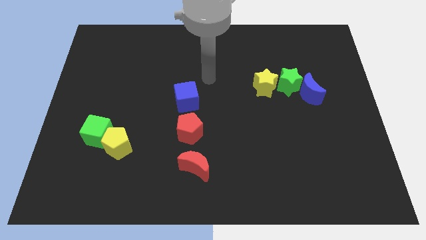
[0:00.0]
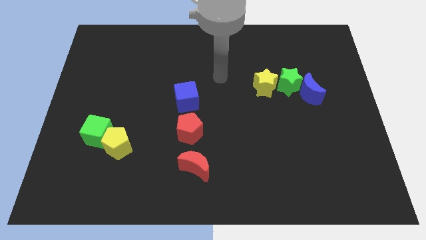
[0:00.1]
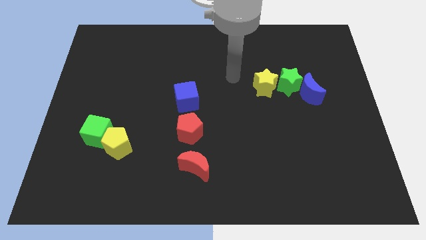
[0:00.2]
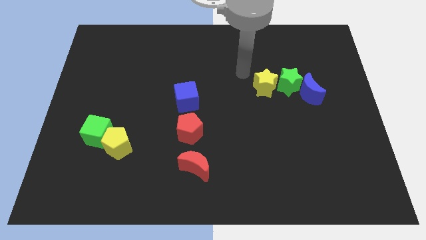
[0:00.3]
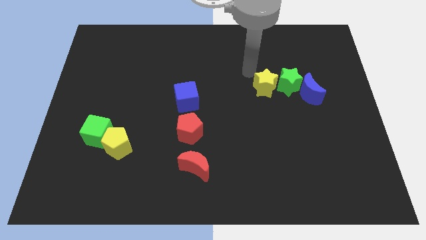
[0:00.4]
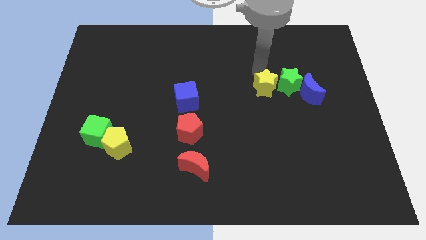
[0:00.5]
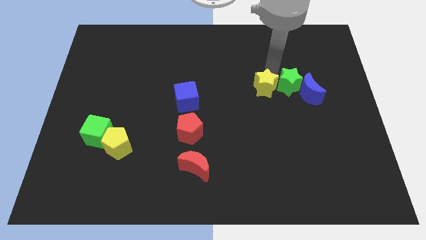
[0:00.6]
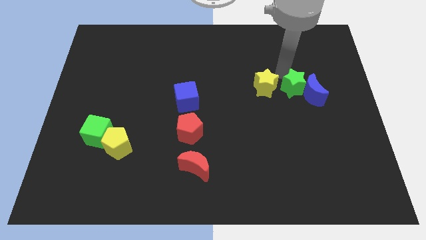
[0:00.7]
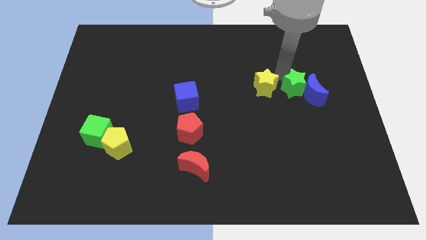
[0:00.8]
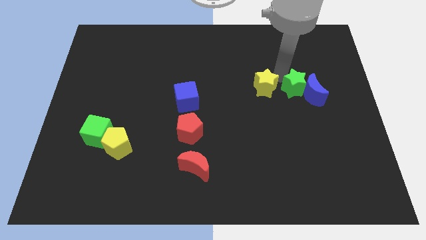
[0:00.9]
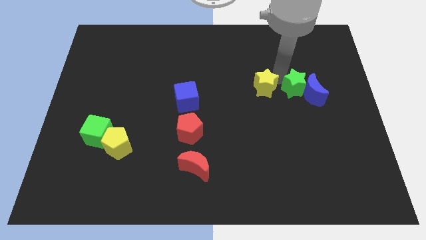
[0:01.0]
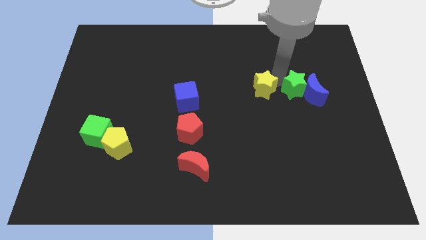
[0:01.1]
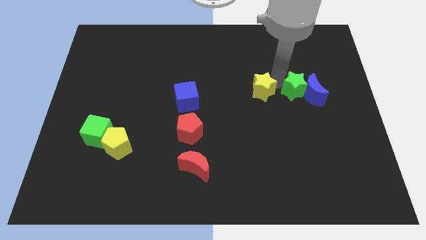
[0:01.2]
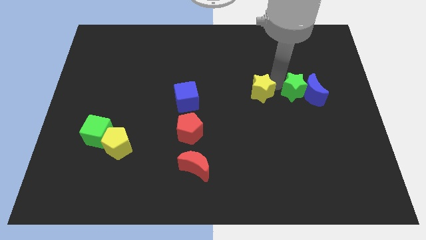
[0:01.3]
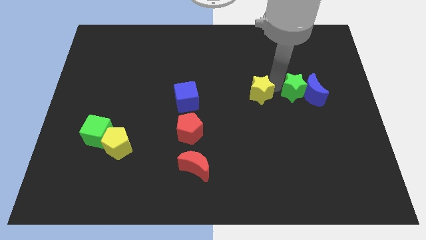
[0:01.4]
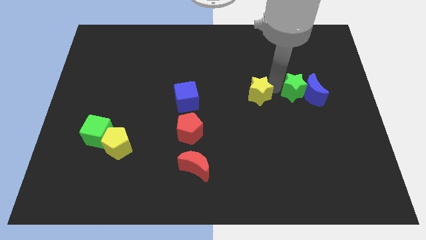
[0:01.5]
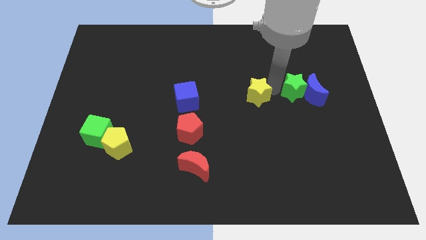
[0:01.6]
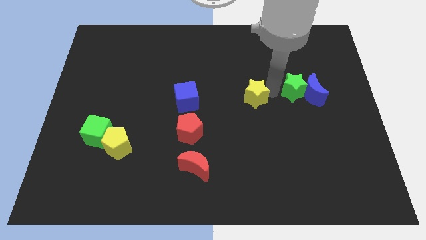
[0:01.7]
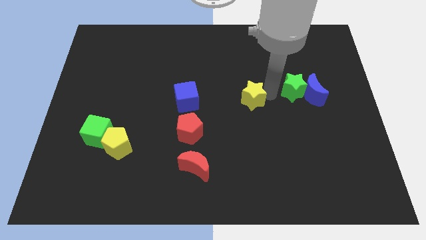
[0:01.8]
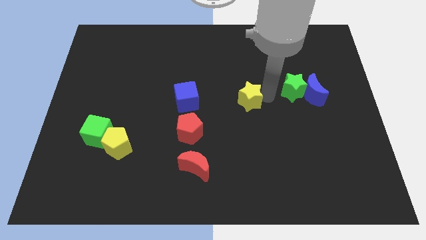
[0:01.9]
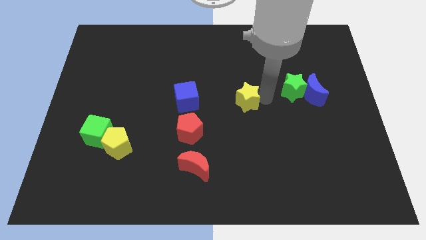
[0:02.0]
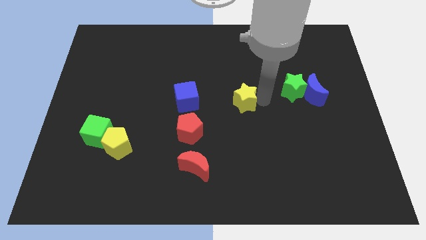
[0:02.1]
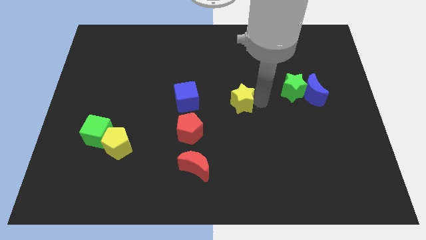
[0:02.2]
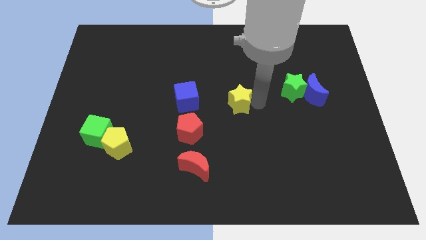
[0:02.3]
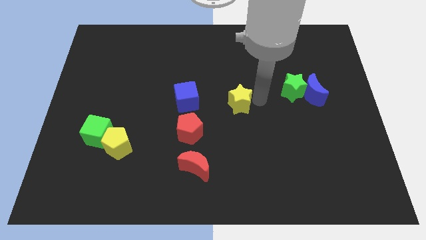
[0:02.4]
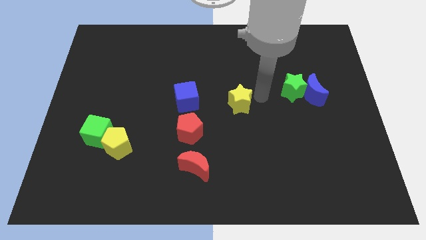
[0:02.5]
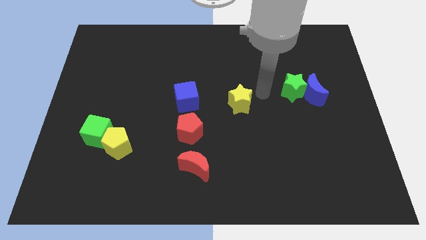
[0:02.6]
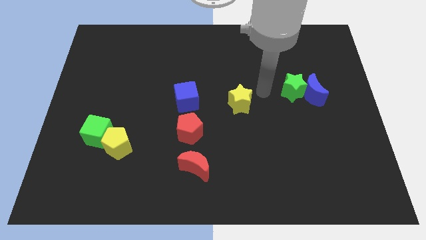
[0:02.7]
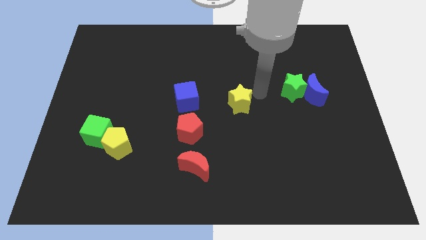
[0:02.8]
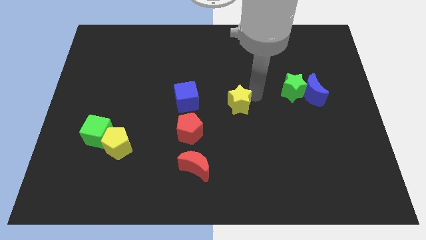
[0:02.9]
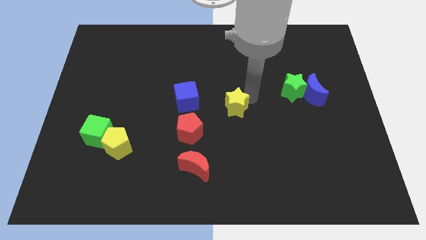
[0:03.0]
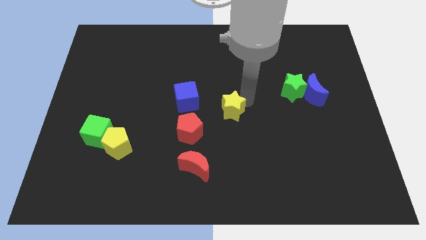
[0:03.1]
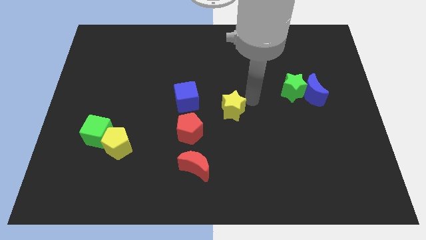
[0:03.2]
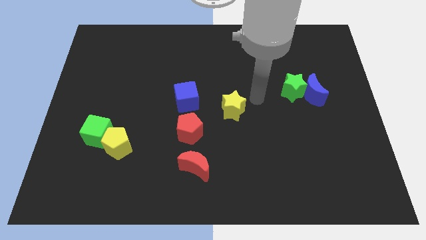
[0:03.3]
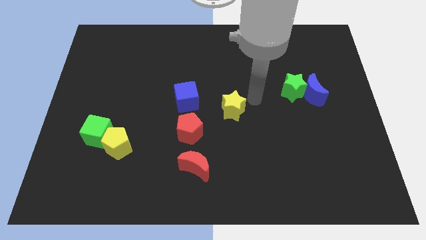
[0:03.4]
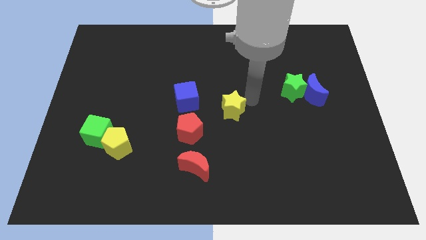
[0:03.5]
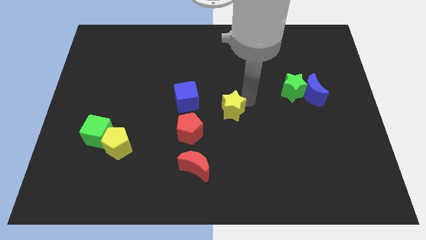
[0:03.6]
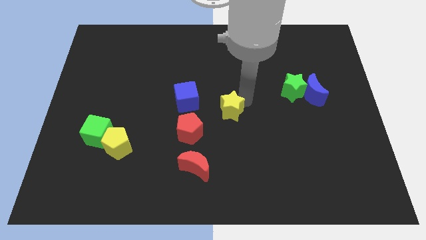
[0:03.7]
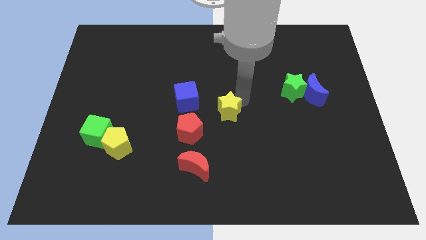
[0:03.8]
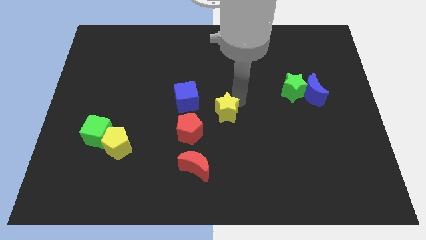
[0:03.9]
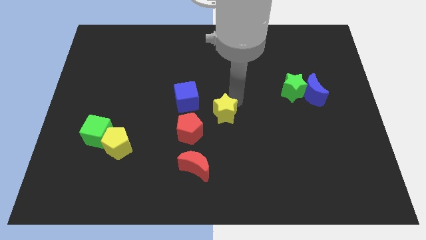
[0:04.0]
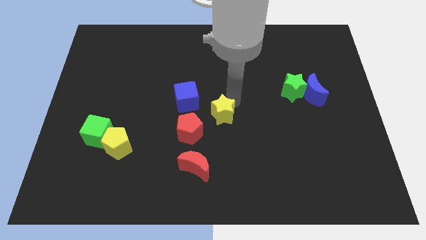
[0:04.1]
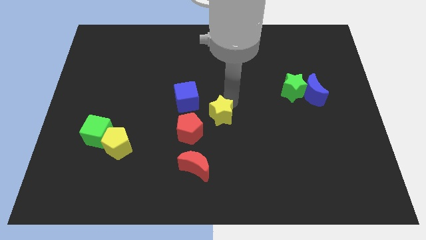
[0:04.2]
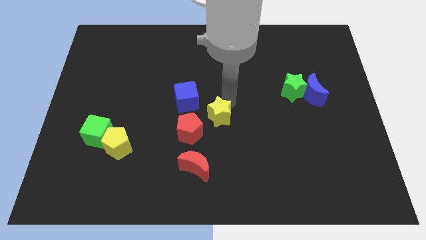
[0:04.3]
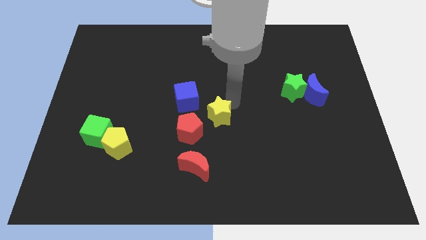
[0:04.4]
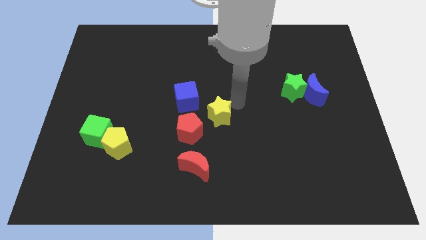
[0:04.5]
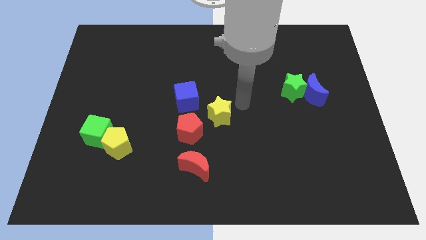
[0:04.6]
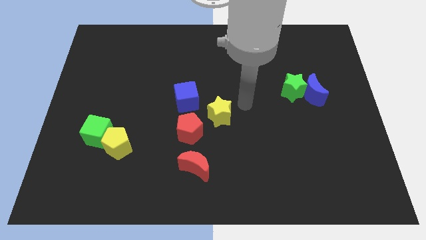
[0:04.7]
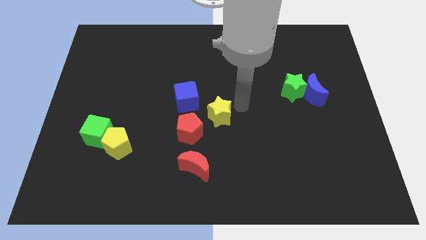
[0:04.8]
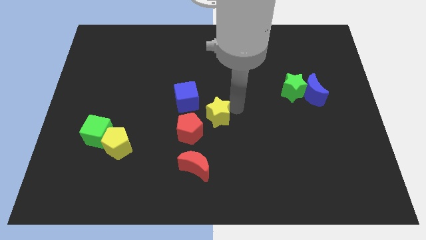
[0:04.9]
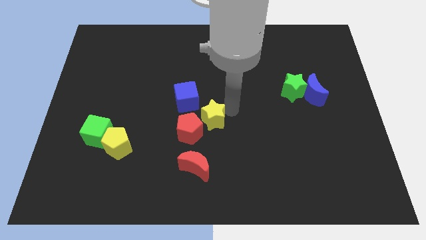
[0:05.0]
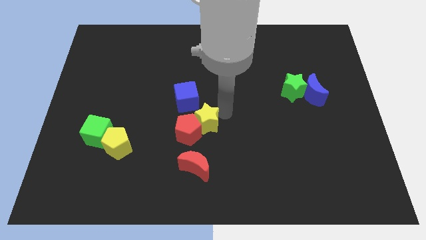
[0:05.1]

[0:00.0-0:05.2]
move the yellow star next to the red pentagon

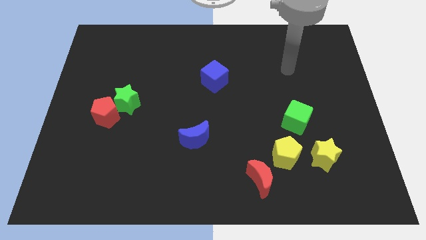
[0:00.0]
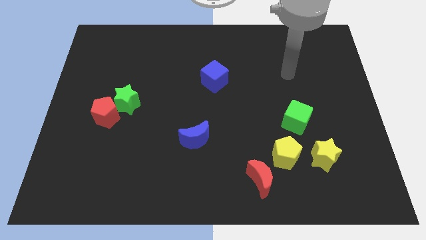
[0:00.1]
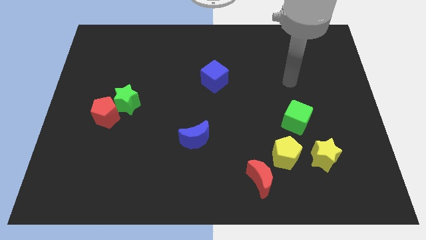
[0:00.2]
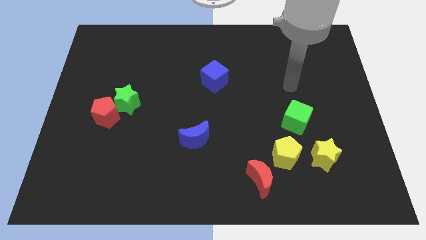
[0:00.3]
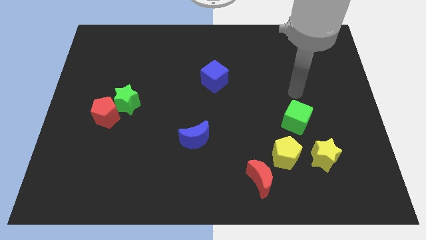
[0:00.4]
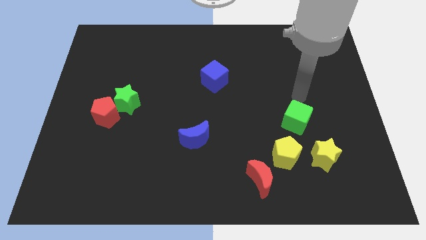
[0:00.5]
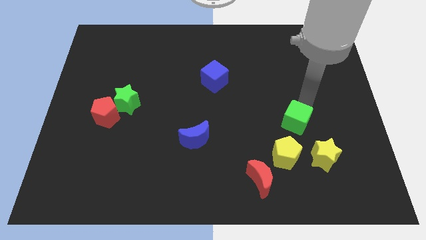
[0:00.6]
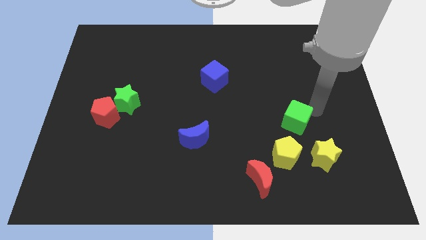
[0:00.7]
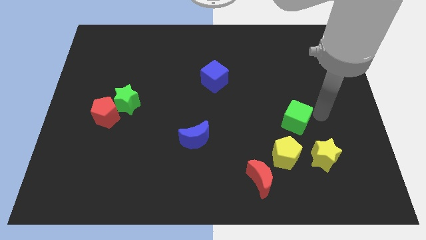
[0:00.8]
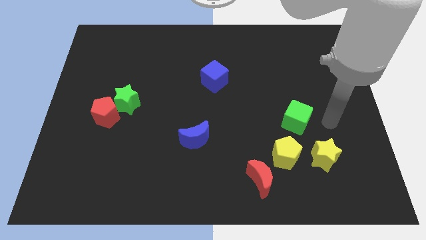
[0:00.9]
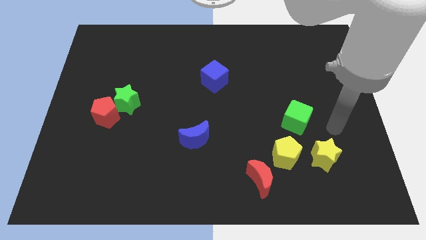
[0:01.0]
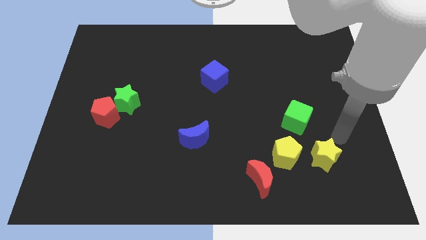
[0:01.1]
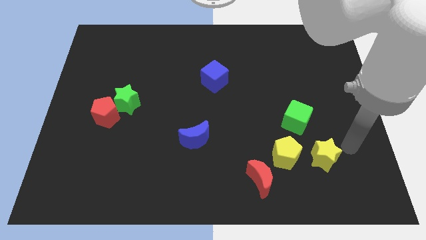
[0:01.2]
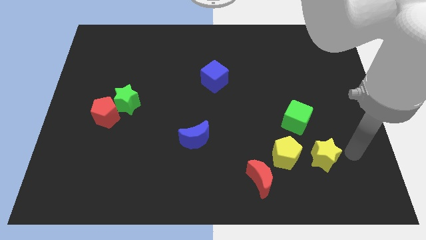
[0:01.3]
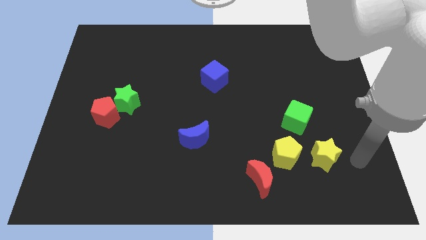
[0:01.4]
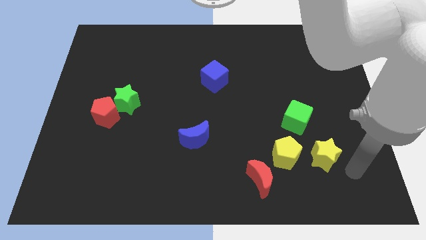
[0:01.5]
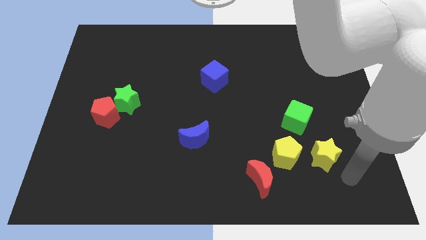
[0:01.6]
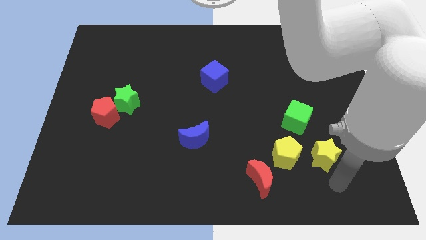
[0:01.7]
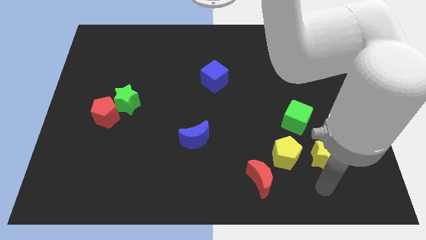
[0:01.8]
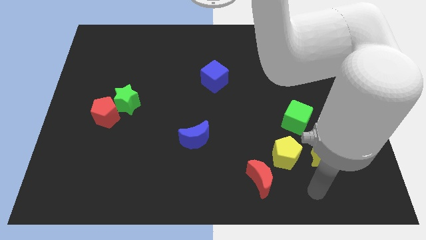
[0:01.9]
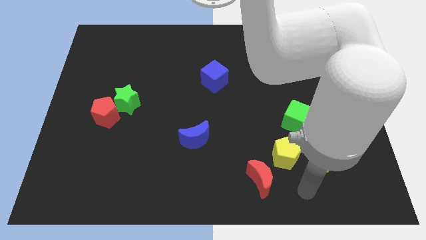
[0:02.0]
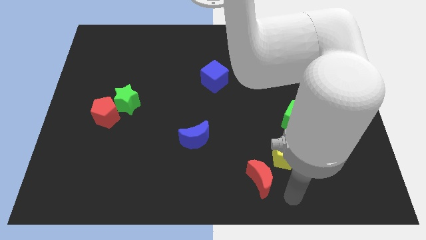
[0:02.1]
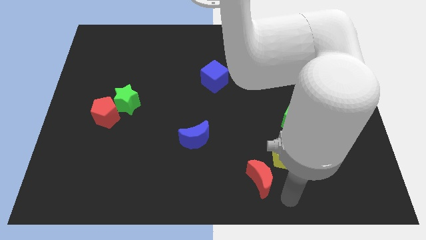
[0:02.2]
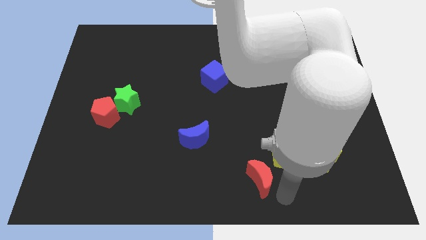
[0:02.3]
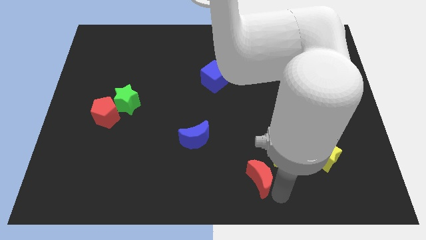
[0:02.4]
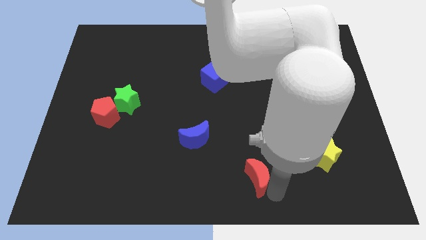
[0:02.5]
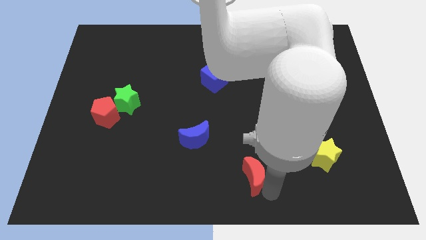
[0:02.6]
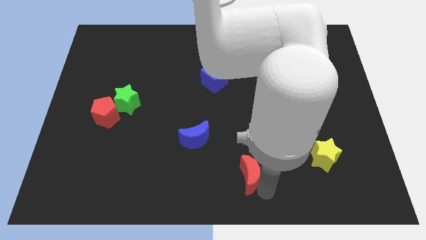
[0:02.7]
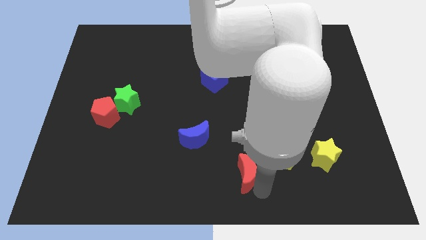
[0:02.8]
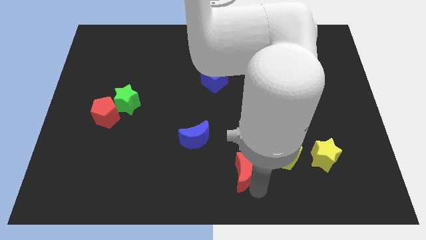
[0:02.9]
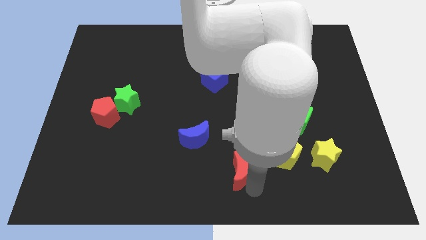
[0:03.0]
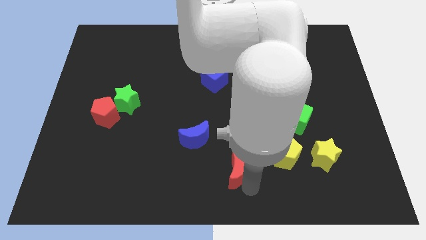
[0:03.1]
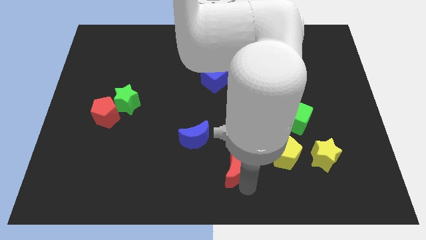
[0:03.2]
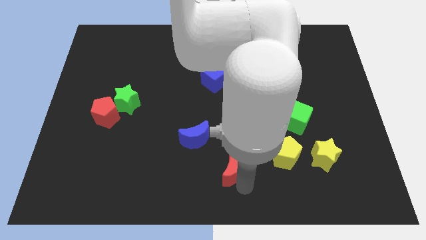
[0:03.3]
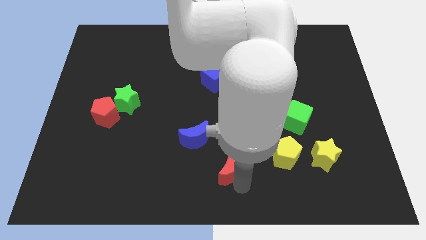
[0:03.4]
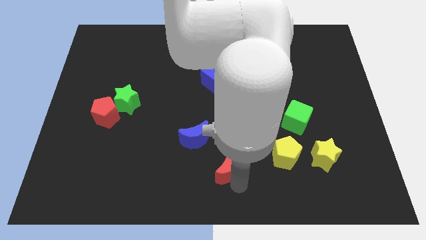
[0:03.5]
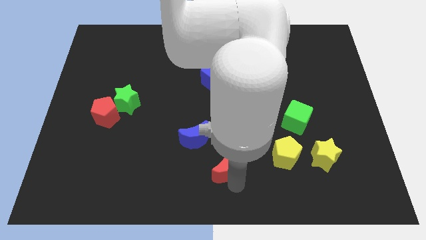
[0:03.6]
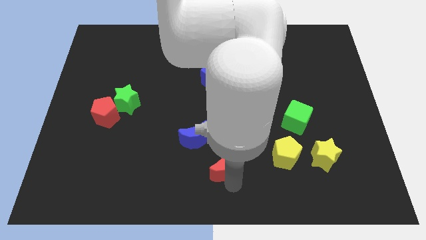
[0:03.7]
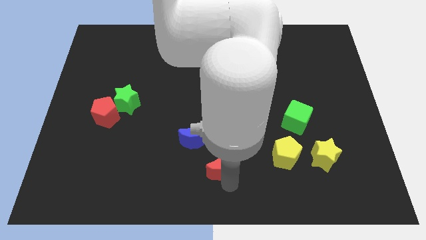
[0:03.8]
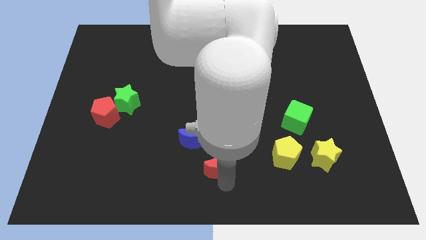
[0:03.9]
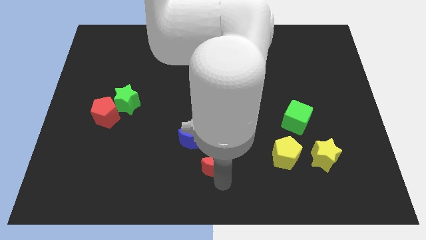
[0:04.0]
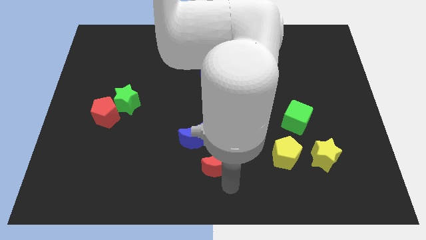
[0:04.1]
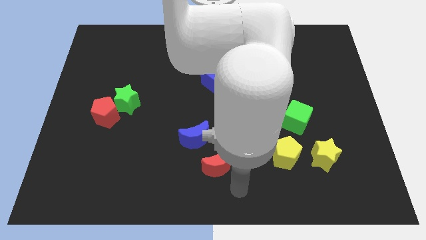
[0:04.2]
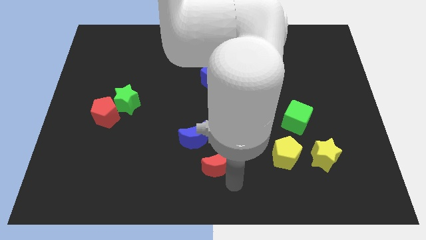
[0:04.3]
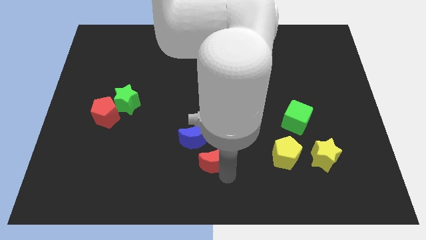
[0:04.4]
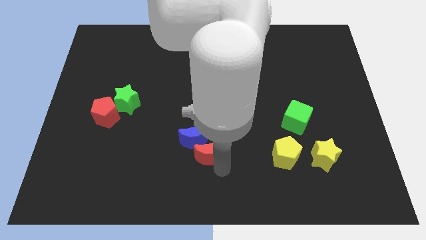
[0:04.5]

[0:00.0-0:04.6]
push the red moon towards the blue moon
